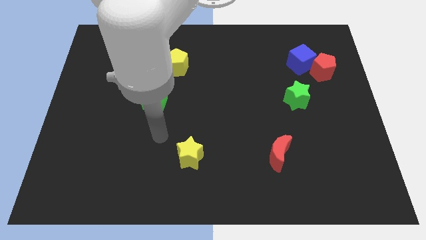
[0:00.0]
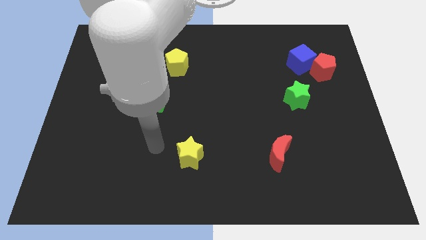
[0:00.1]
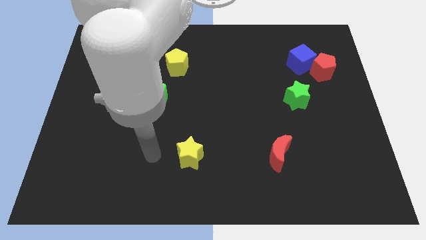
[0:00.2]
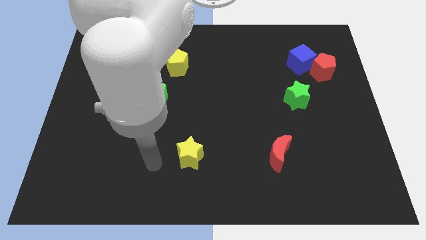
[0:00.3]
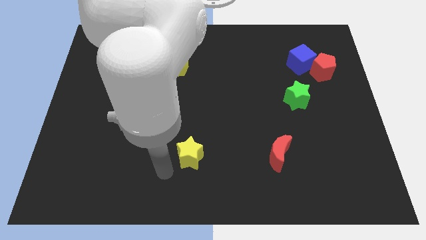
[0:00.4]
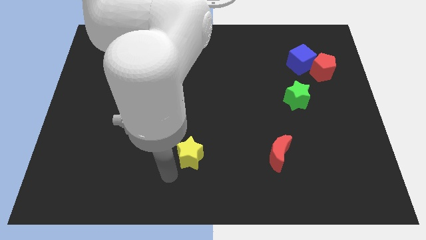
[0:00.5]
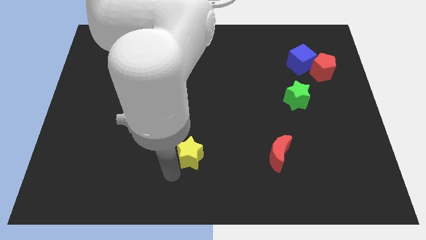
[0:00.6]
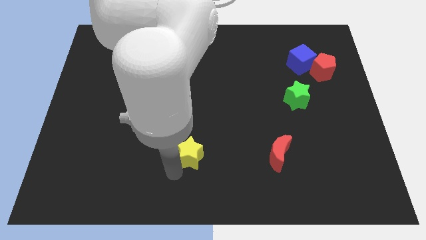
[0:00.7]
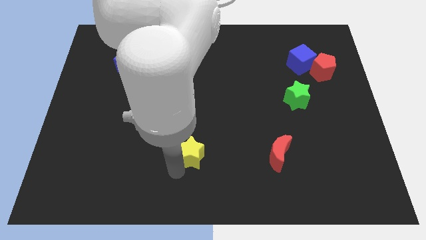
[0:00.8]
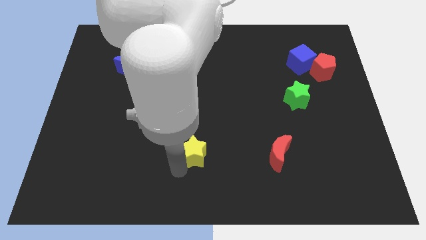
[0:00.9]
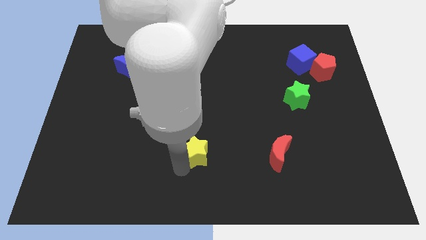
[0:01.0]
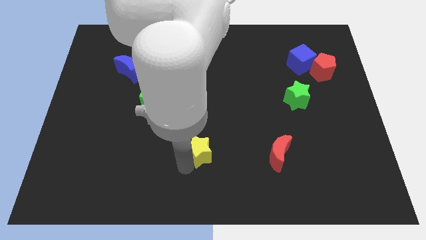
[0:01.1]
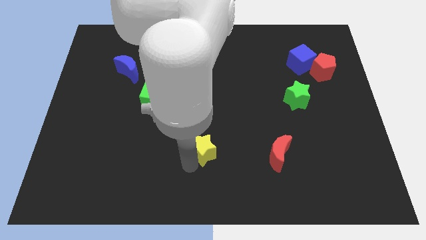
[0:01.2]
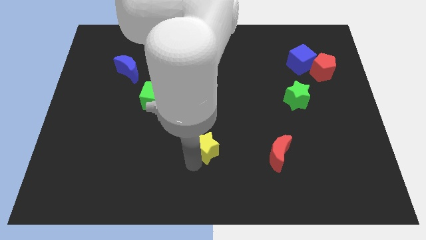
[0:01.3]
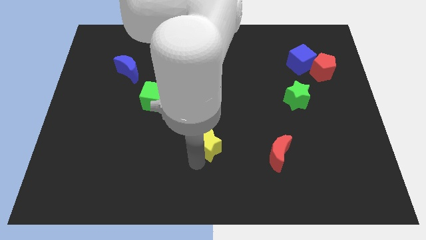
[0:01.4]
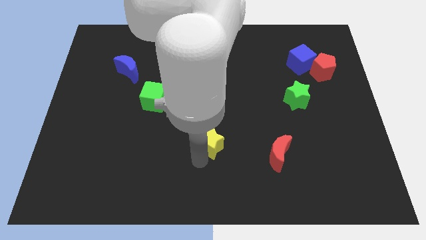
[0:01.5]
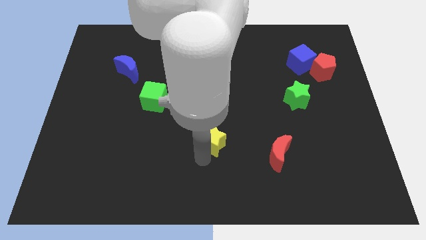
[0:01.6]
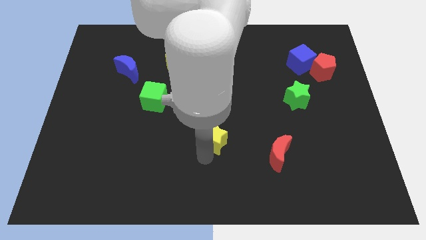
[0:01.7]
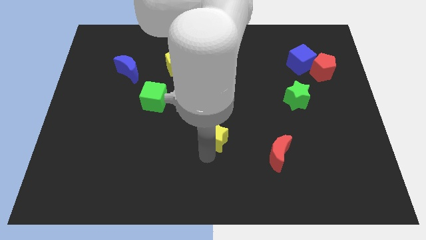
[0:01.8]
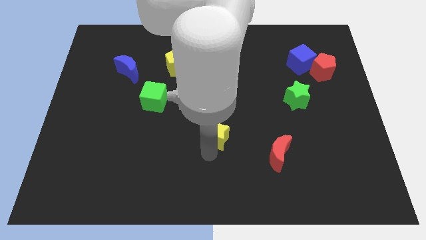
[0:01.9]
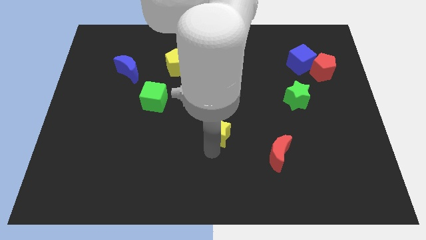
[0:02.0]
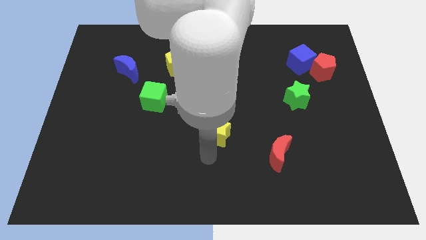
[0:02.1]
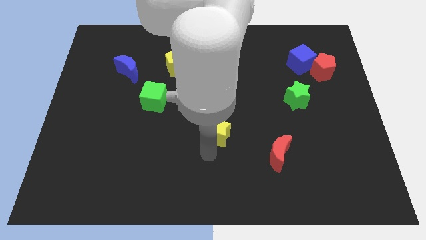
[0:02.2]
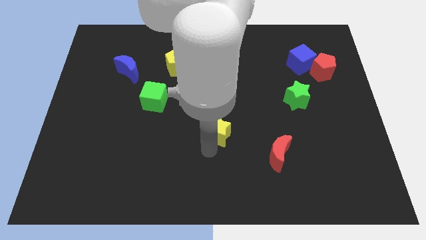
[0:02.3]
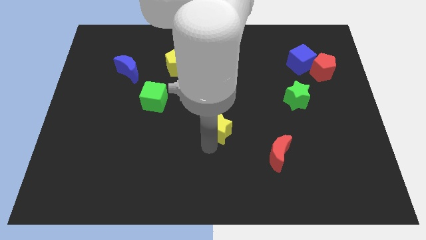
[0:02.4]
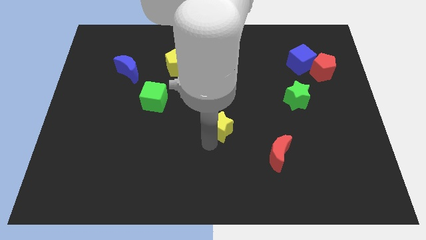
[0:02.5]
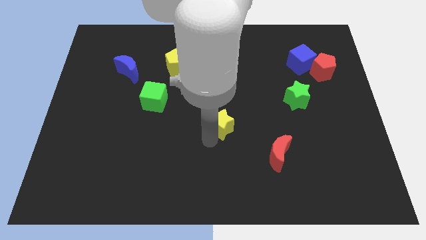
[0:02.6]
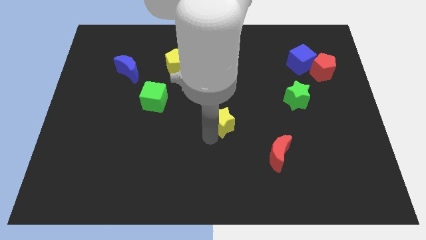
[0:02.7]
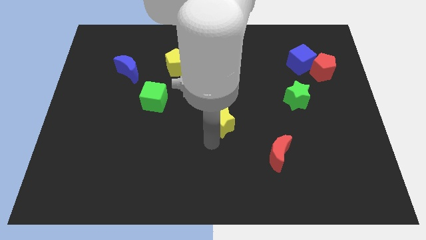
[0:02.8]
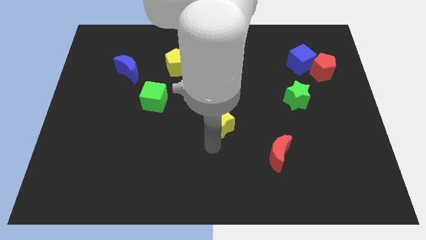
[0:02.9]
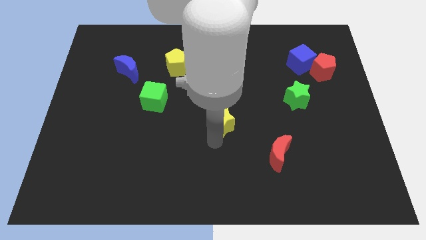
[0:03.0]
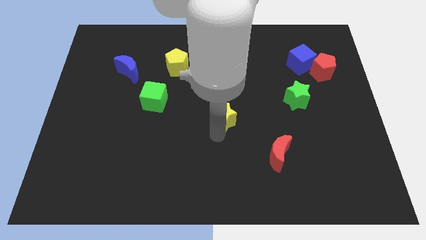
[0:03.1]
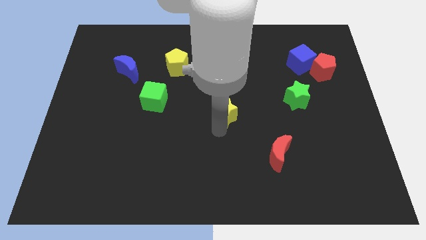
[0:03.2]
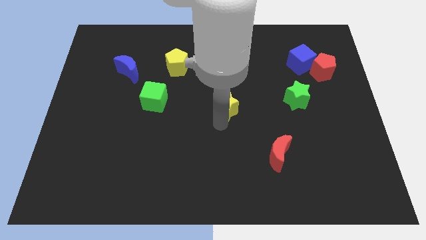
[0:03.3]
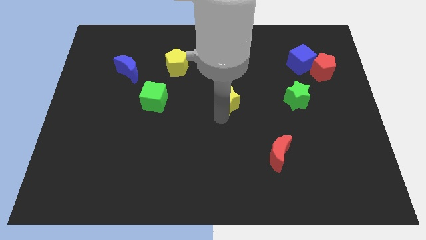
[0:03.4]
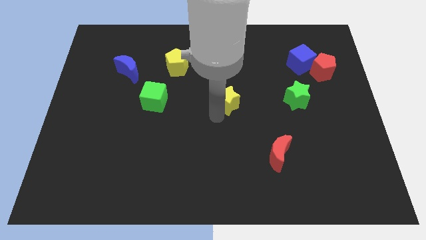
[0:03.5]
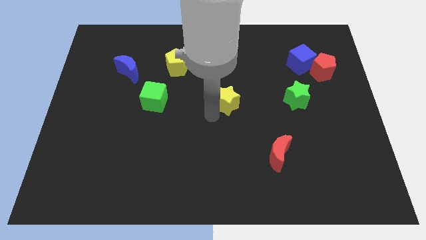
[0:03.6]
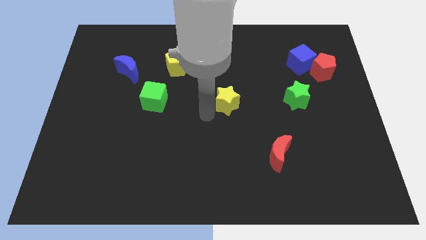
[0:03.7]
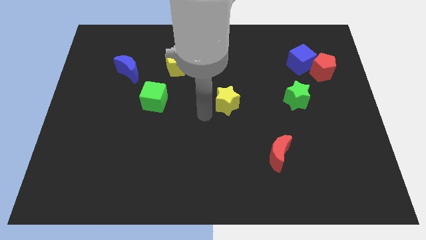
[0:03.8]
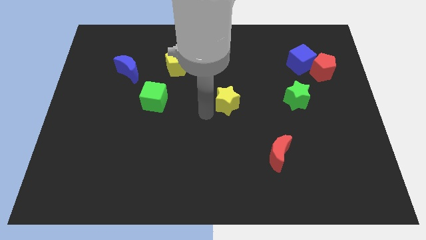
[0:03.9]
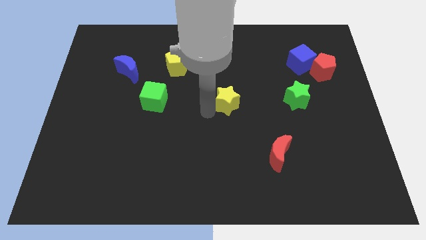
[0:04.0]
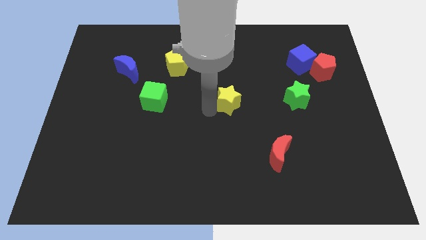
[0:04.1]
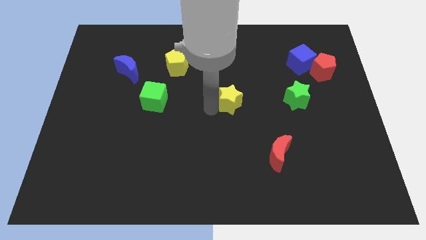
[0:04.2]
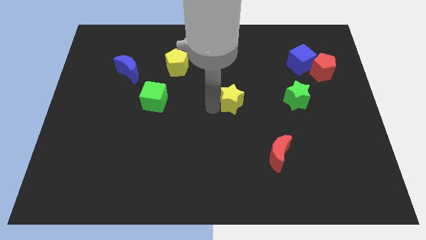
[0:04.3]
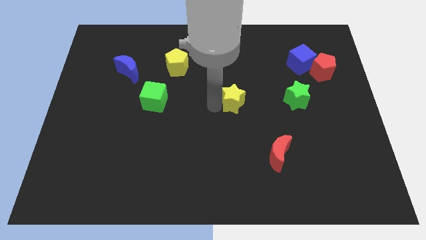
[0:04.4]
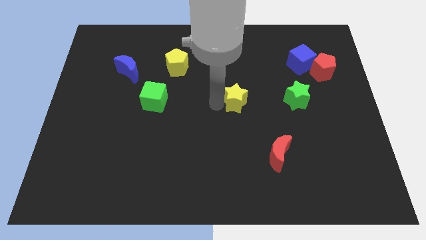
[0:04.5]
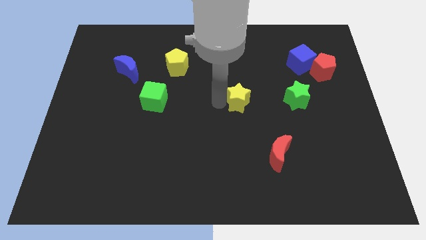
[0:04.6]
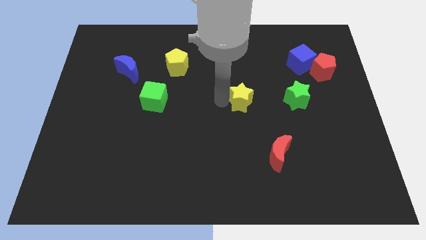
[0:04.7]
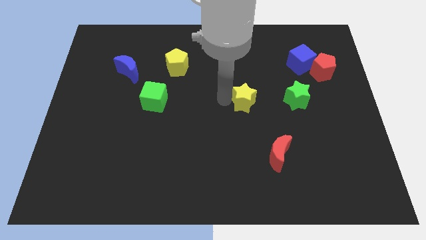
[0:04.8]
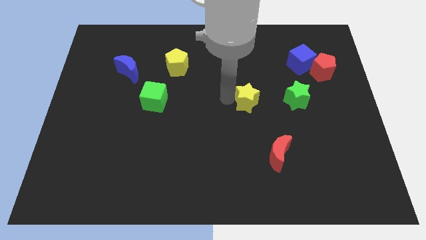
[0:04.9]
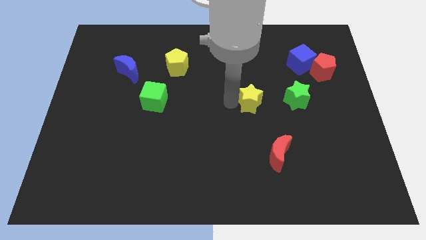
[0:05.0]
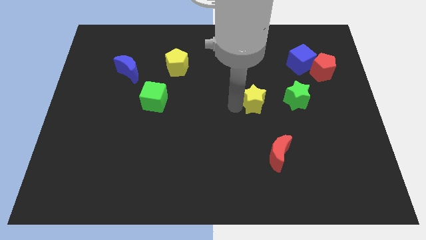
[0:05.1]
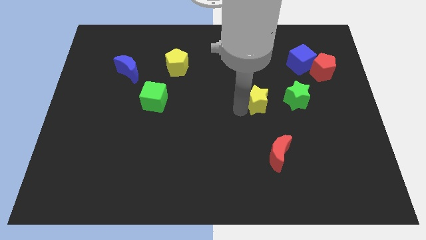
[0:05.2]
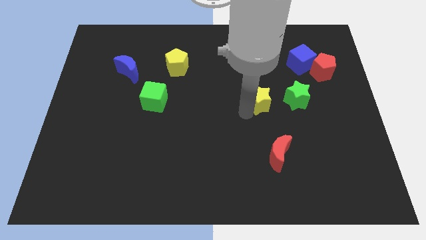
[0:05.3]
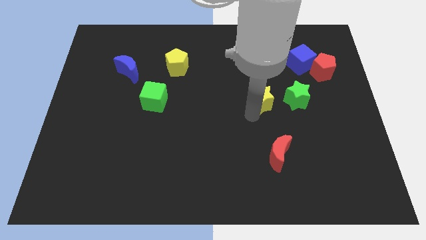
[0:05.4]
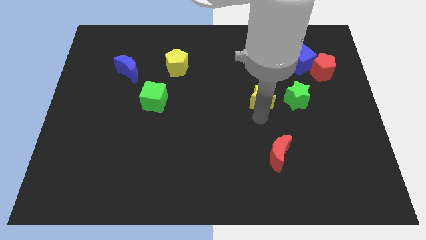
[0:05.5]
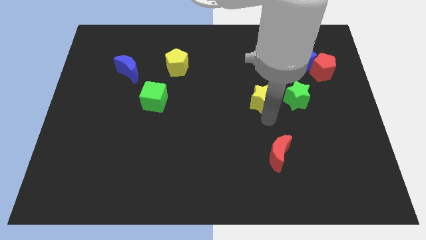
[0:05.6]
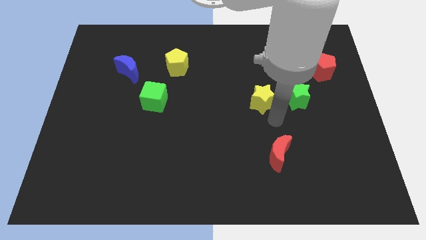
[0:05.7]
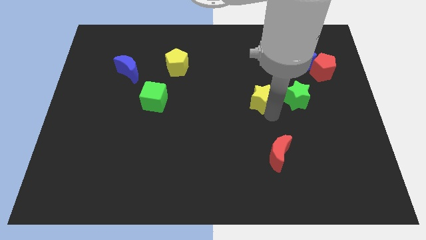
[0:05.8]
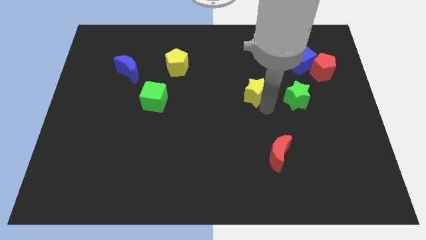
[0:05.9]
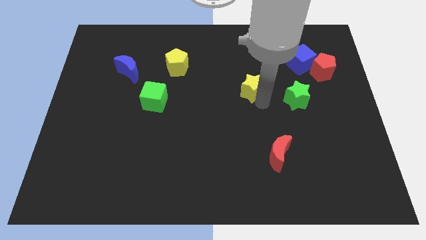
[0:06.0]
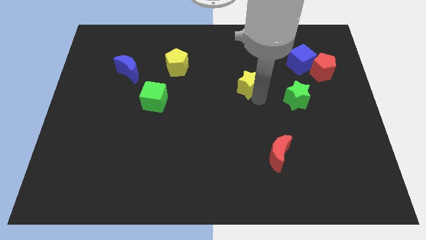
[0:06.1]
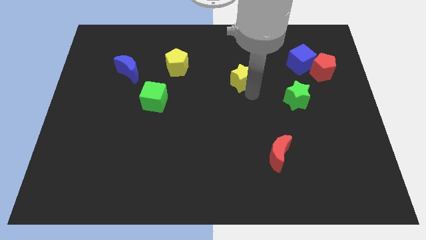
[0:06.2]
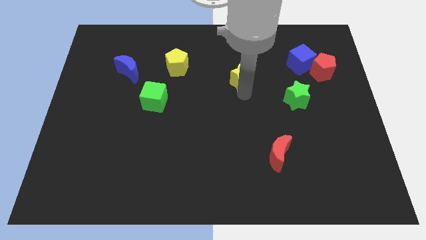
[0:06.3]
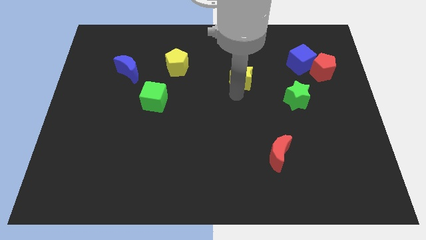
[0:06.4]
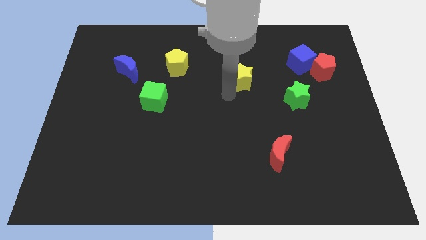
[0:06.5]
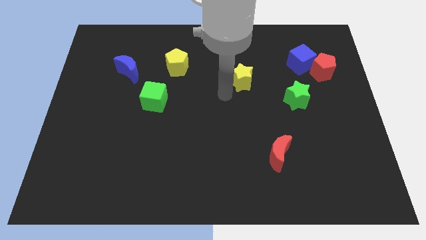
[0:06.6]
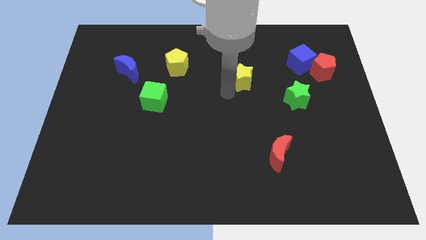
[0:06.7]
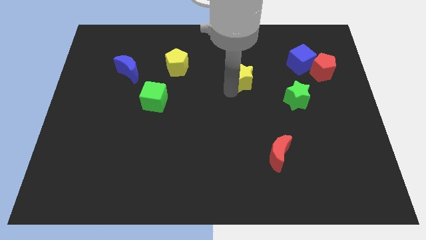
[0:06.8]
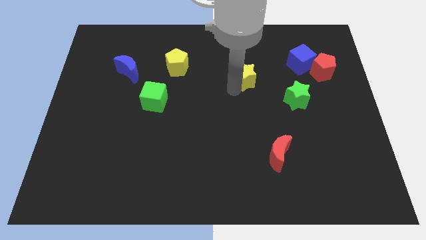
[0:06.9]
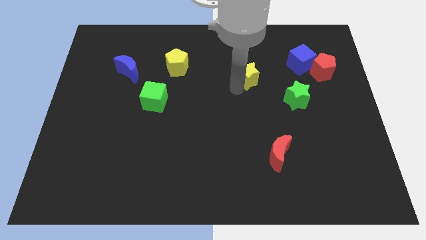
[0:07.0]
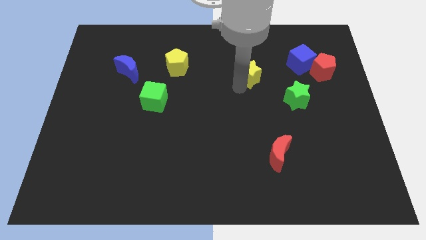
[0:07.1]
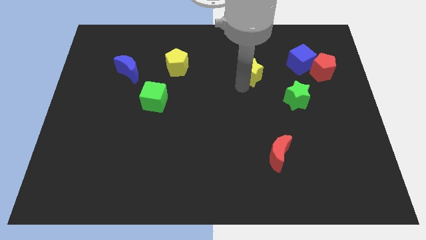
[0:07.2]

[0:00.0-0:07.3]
move the yellow star to the left of the blue cube
